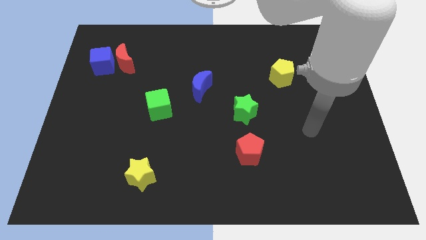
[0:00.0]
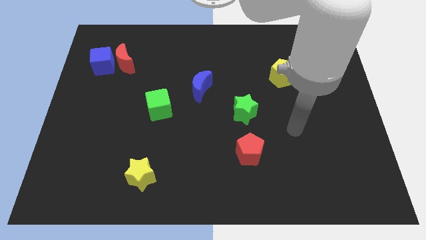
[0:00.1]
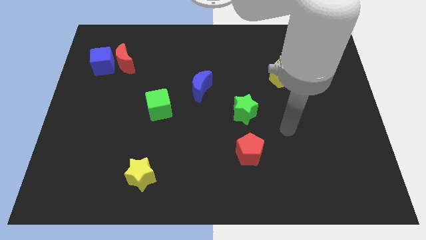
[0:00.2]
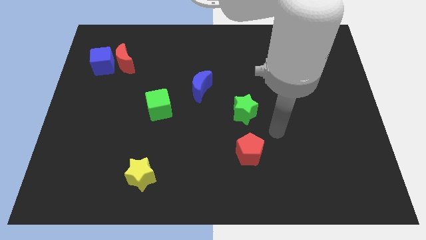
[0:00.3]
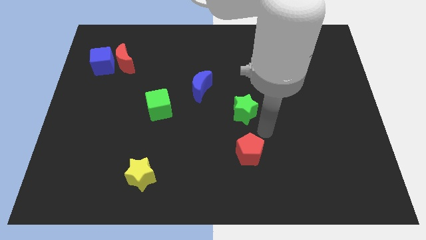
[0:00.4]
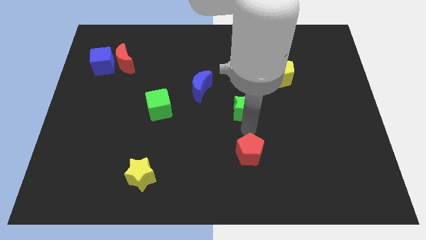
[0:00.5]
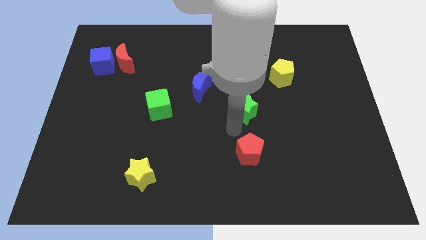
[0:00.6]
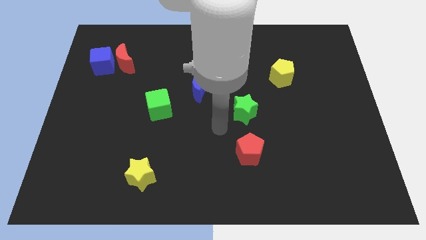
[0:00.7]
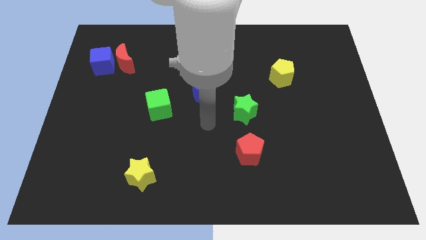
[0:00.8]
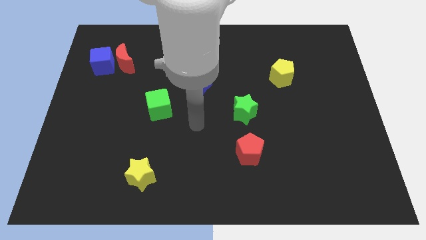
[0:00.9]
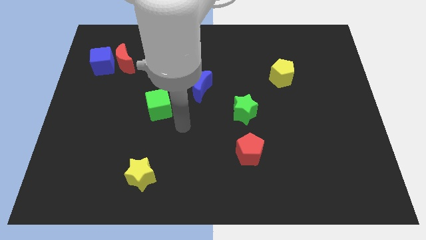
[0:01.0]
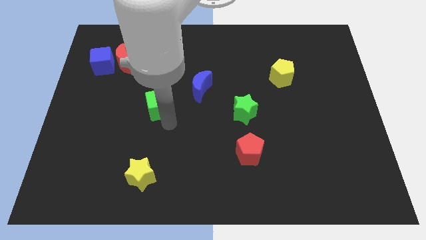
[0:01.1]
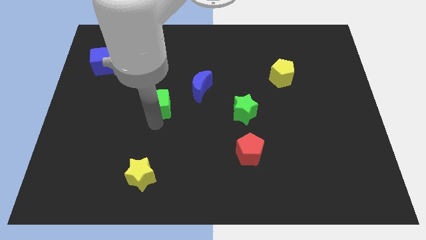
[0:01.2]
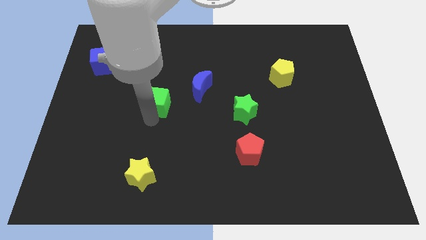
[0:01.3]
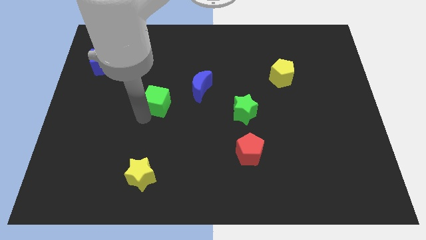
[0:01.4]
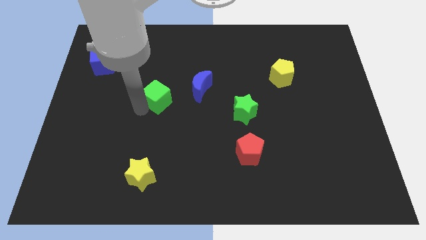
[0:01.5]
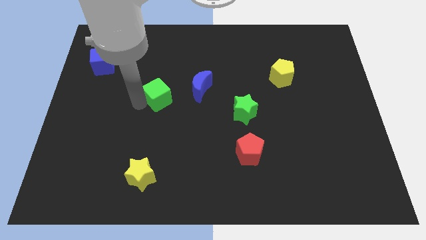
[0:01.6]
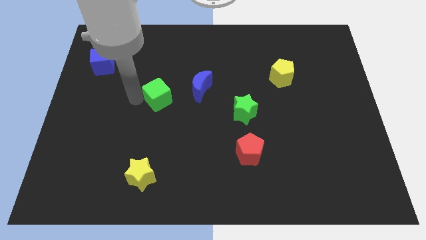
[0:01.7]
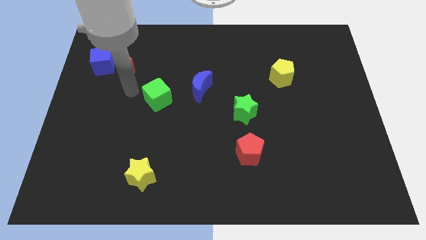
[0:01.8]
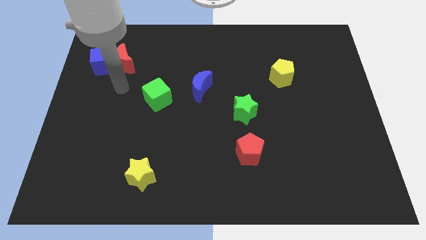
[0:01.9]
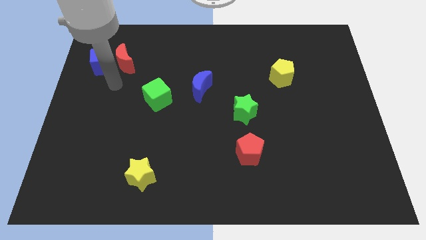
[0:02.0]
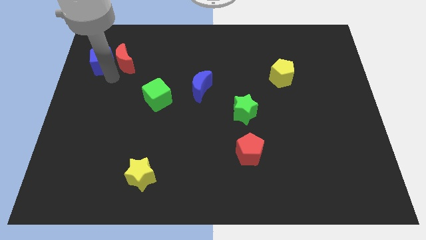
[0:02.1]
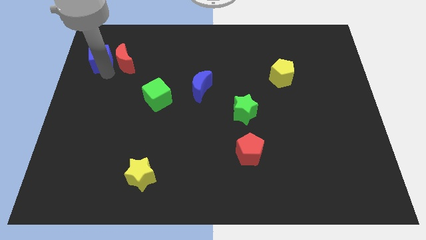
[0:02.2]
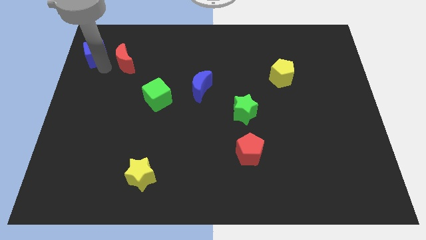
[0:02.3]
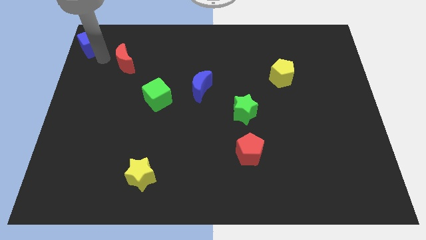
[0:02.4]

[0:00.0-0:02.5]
separate the red moon from the blue cube

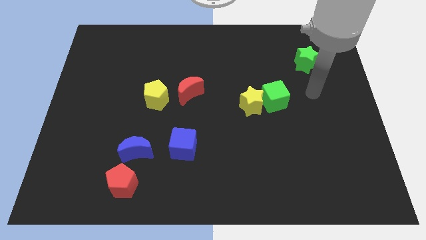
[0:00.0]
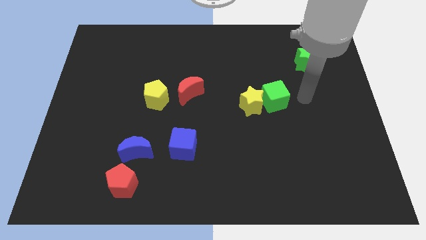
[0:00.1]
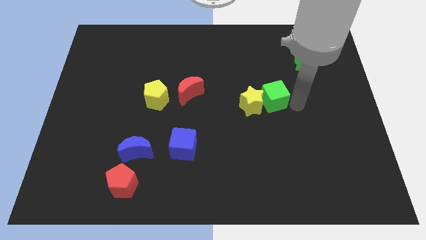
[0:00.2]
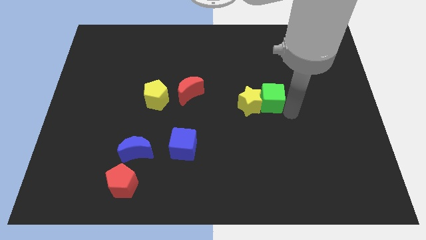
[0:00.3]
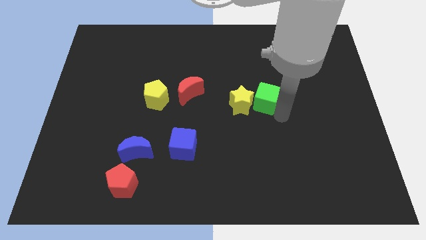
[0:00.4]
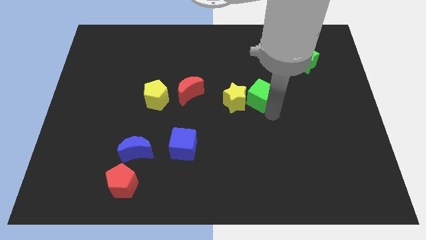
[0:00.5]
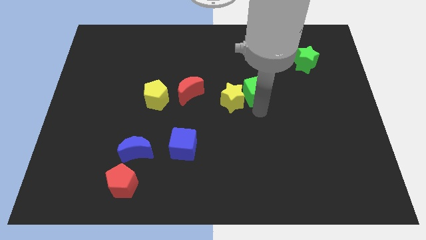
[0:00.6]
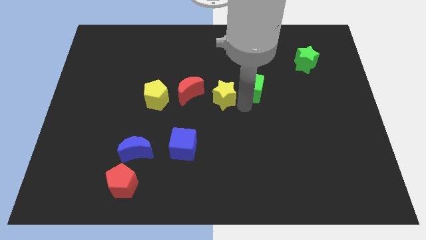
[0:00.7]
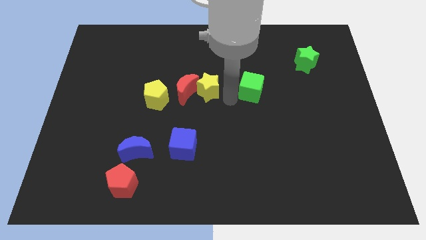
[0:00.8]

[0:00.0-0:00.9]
move the green cube away from the yellow star

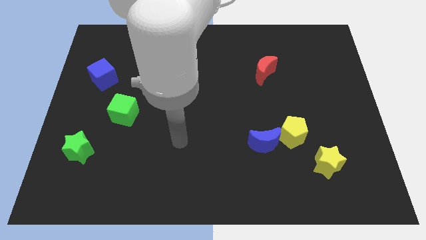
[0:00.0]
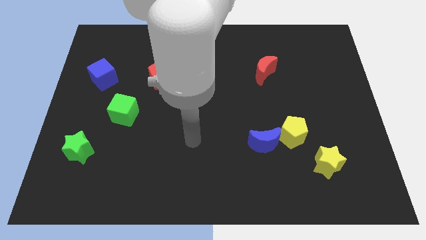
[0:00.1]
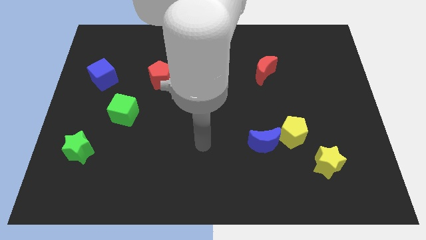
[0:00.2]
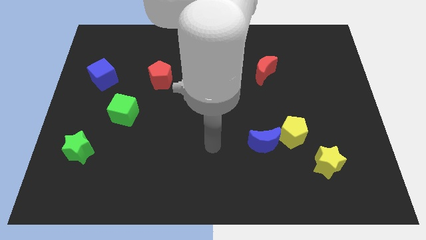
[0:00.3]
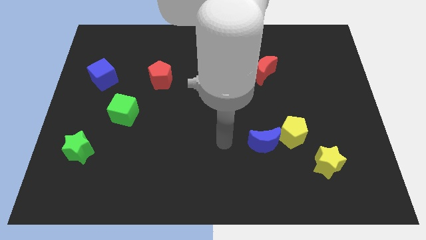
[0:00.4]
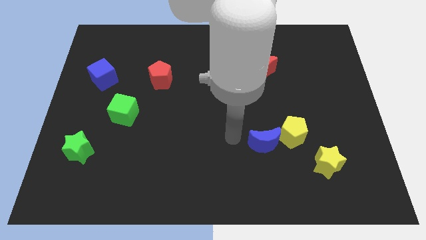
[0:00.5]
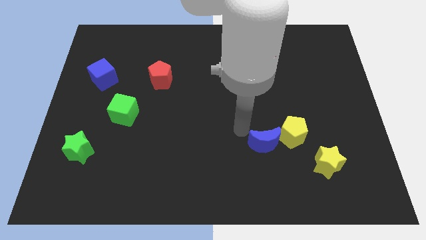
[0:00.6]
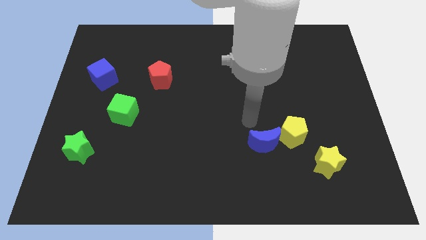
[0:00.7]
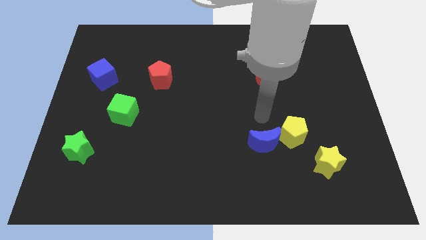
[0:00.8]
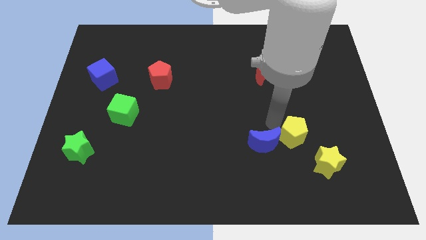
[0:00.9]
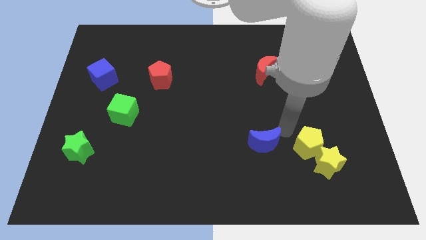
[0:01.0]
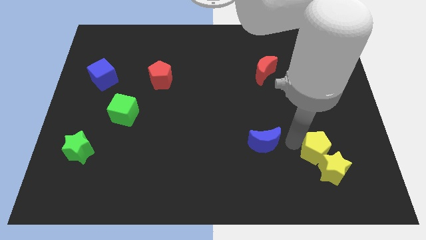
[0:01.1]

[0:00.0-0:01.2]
move the blue moon away from the yellow pentagon

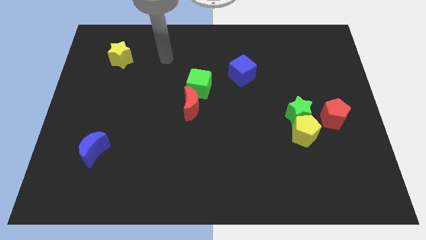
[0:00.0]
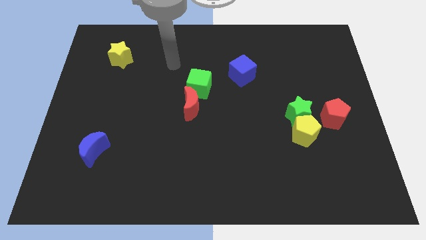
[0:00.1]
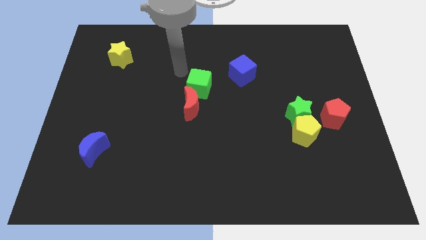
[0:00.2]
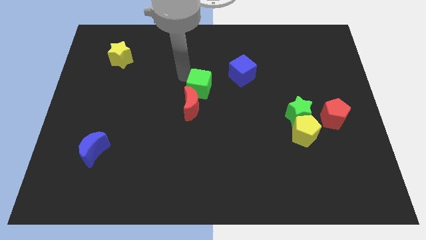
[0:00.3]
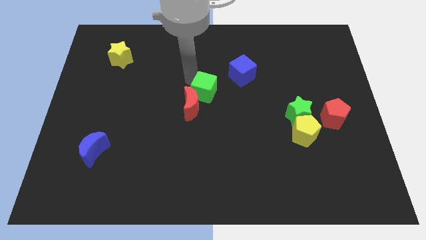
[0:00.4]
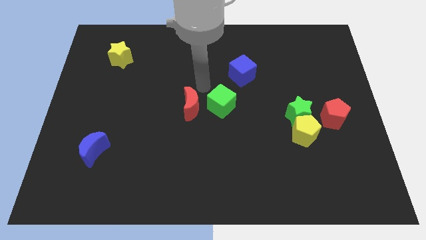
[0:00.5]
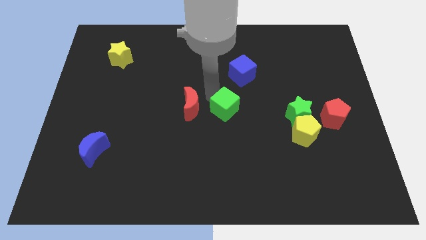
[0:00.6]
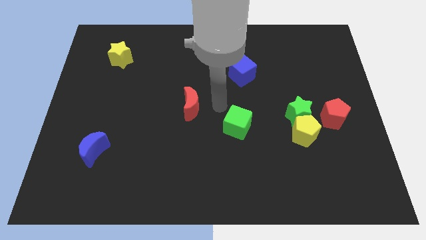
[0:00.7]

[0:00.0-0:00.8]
move the red moon away from the green cube

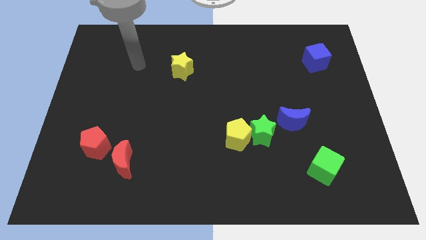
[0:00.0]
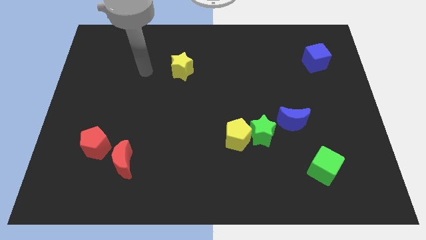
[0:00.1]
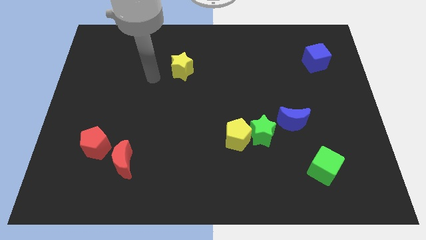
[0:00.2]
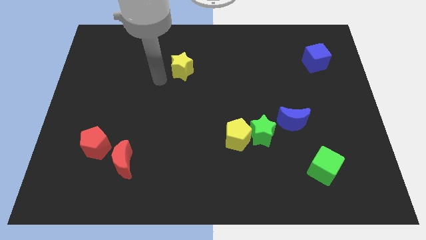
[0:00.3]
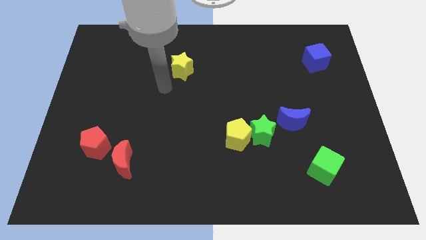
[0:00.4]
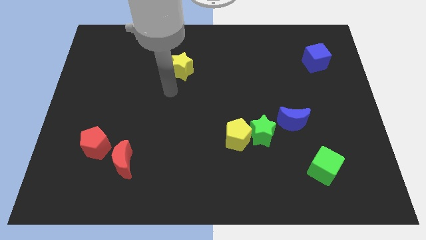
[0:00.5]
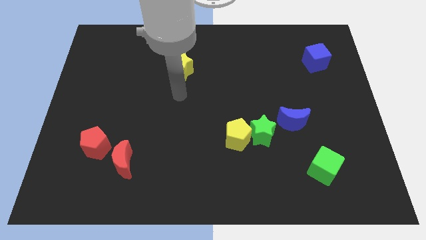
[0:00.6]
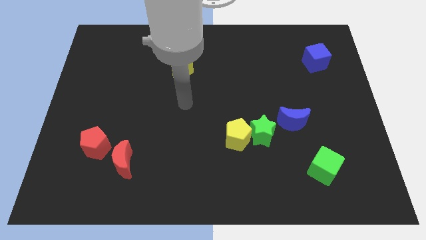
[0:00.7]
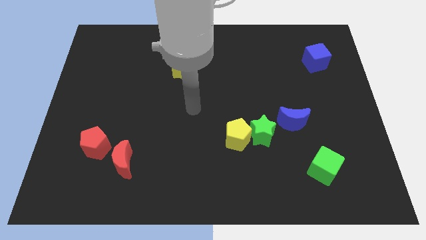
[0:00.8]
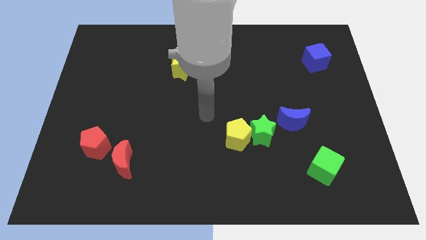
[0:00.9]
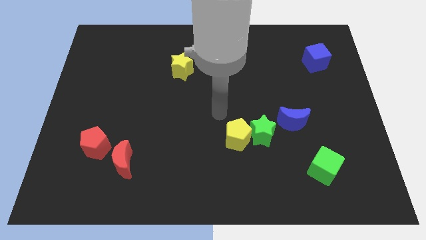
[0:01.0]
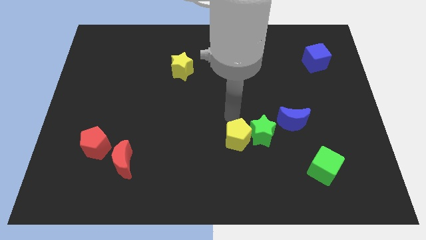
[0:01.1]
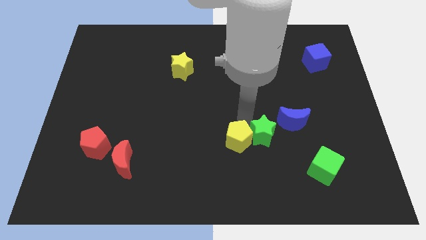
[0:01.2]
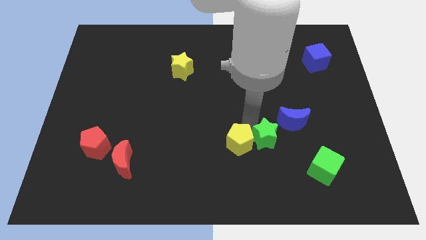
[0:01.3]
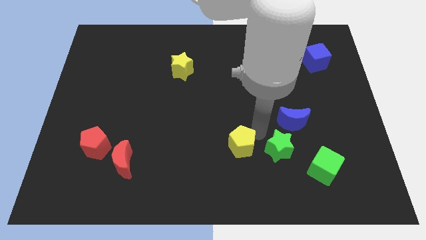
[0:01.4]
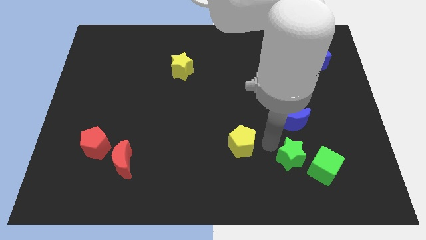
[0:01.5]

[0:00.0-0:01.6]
pull the yellow pentagon apart from the green star

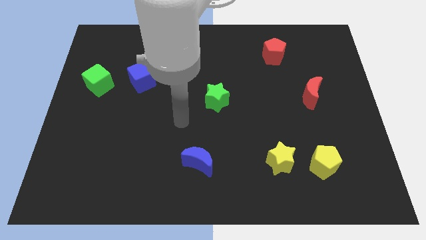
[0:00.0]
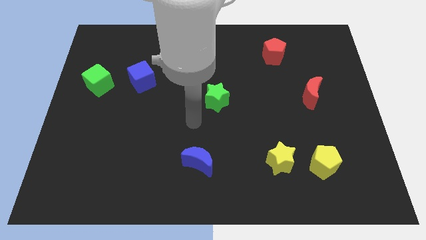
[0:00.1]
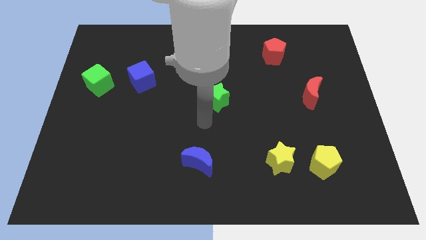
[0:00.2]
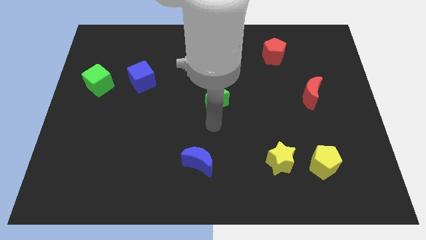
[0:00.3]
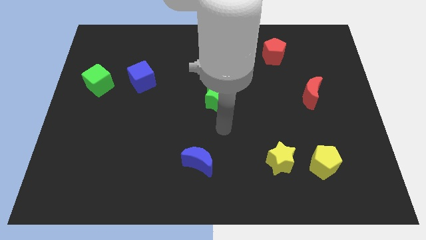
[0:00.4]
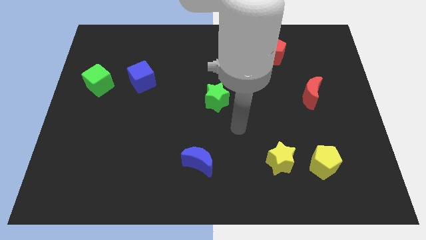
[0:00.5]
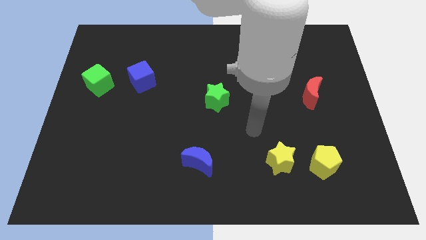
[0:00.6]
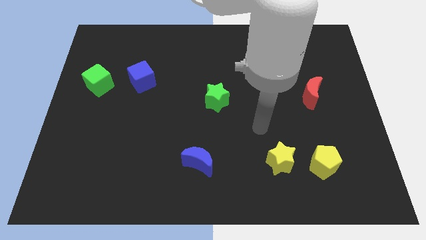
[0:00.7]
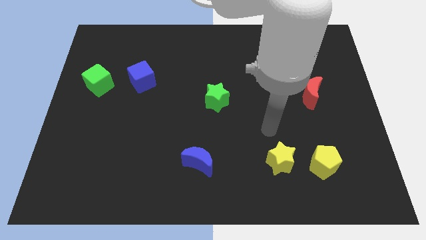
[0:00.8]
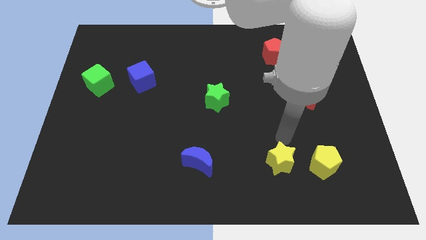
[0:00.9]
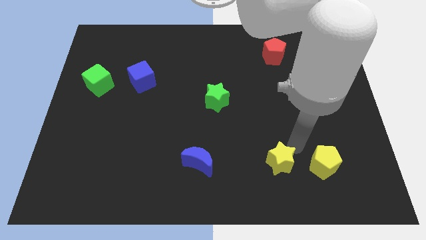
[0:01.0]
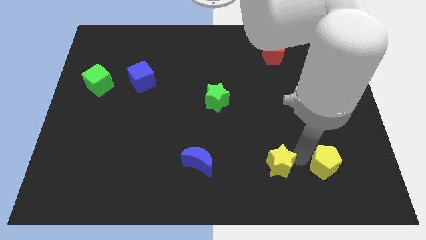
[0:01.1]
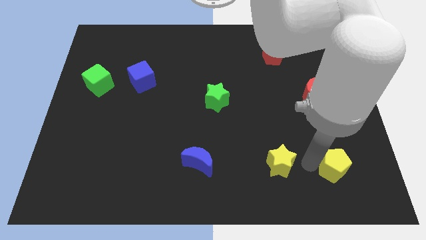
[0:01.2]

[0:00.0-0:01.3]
separate the yellow star from the yellow pentagon

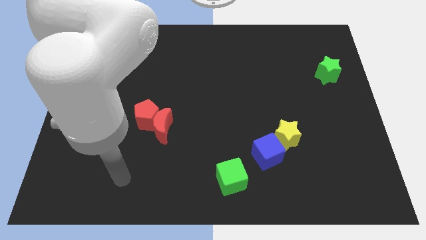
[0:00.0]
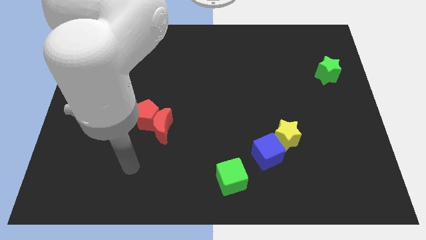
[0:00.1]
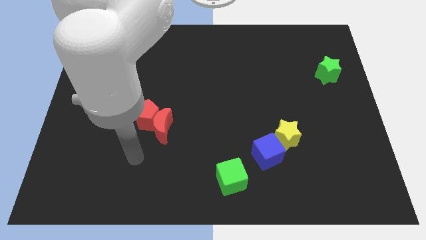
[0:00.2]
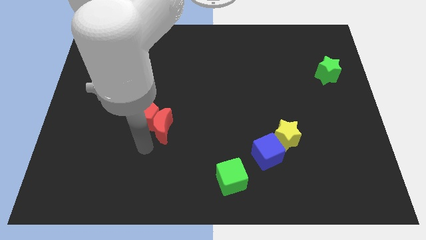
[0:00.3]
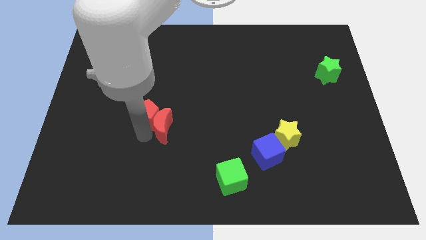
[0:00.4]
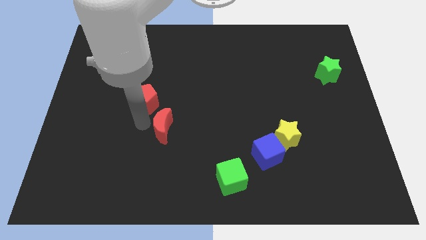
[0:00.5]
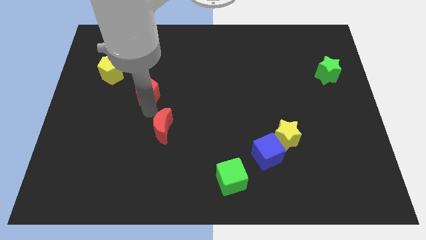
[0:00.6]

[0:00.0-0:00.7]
separate the red moon from the red pentagon

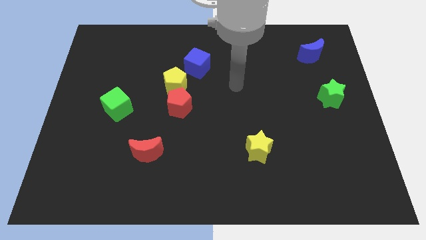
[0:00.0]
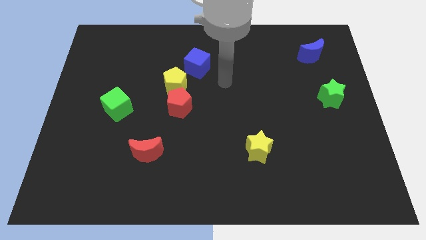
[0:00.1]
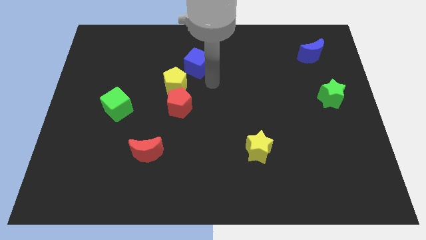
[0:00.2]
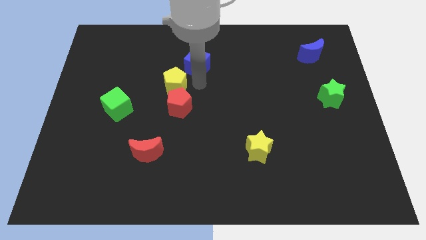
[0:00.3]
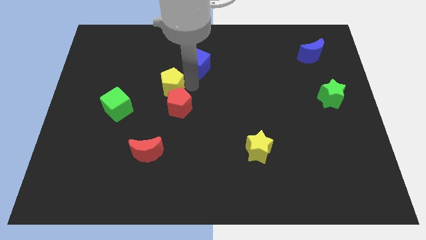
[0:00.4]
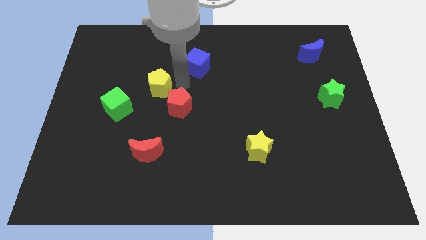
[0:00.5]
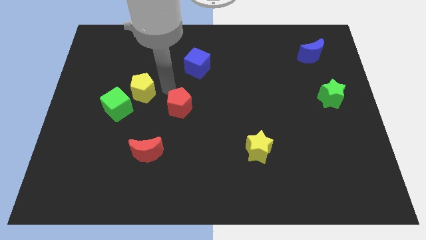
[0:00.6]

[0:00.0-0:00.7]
move the red pentagon away from the yellow pentagon
